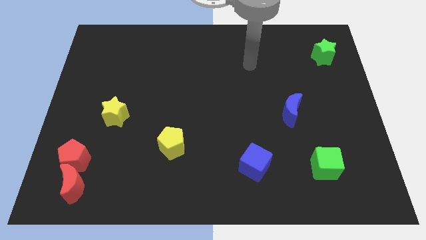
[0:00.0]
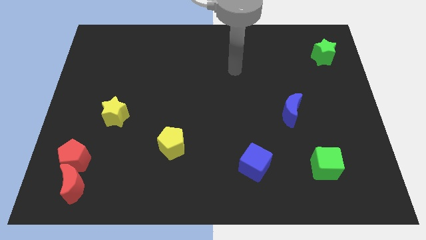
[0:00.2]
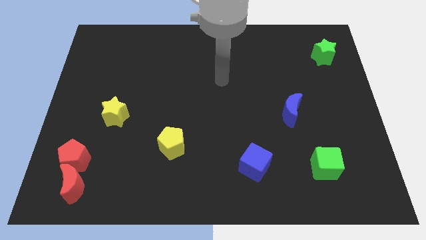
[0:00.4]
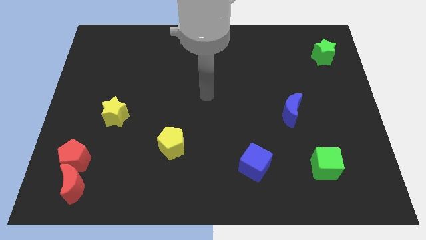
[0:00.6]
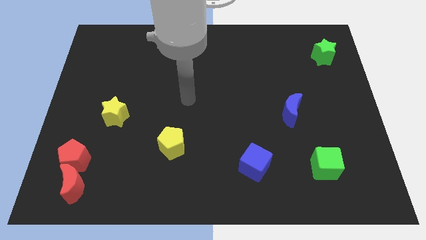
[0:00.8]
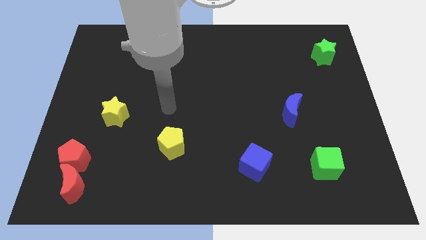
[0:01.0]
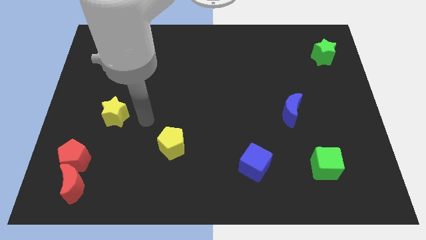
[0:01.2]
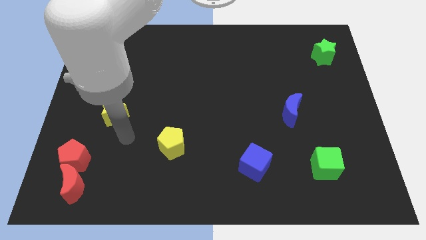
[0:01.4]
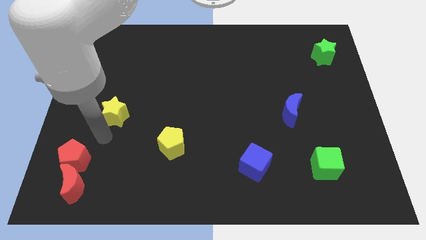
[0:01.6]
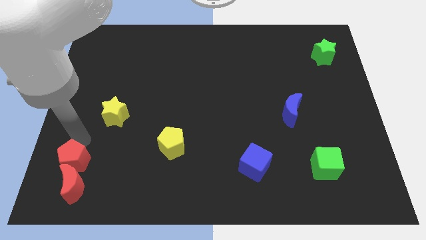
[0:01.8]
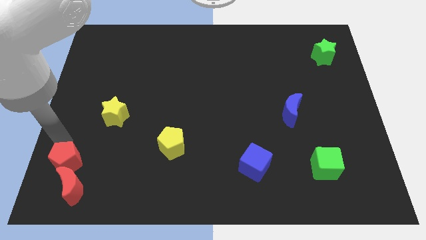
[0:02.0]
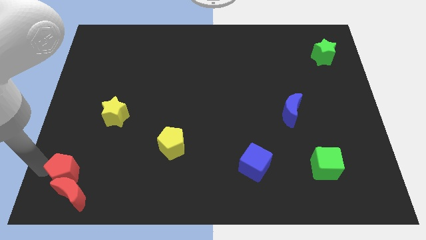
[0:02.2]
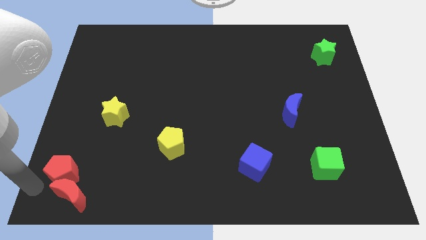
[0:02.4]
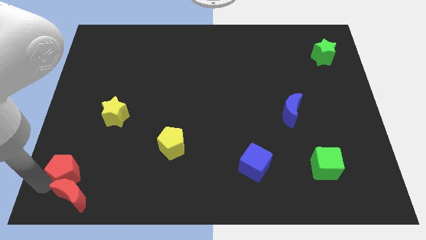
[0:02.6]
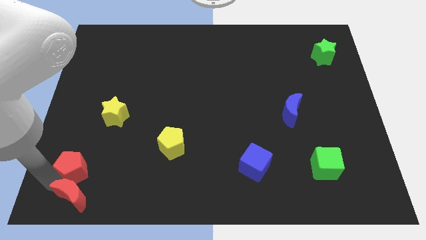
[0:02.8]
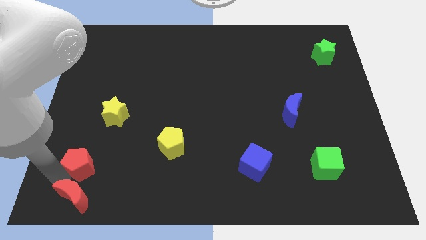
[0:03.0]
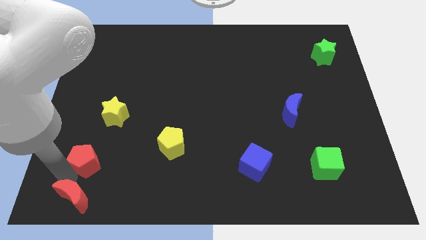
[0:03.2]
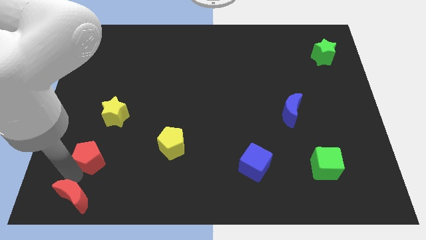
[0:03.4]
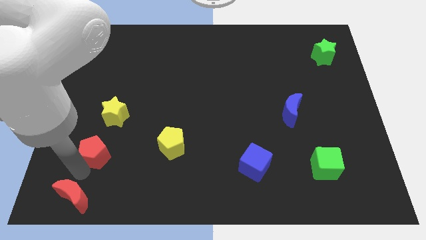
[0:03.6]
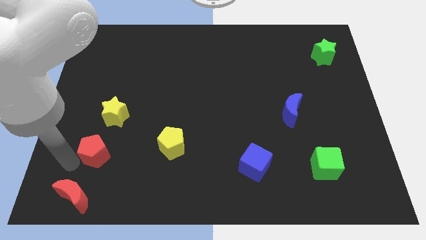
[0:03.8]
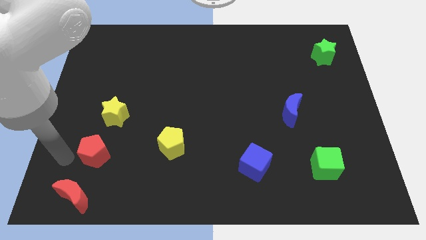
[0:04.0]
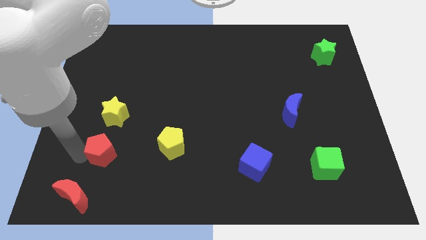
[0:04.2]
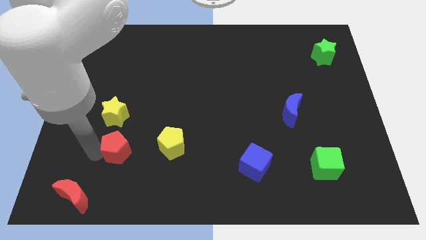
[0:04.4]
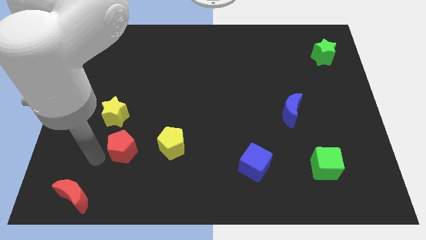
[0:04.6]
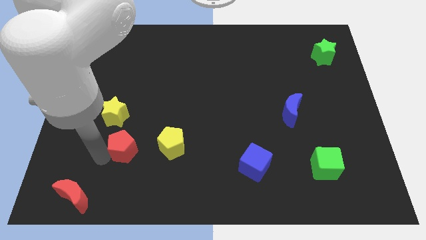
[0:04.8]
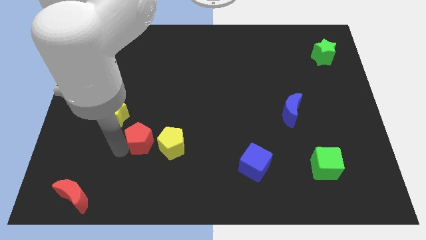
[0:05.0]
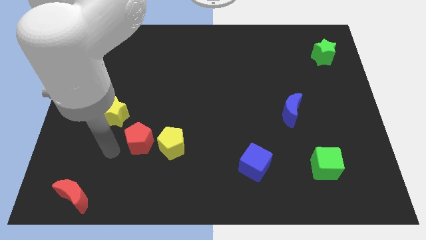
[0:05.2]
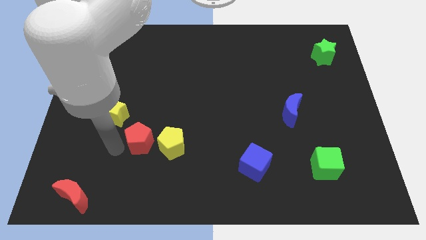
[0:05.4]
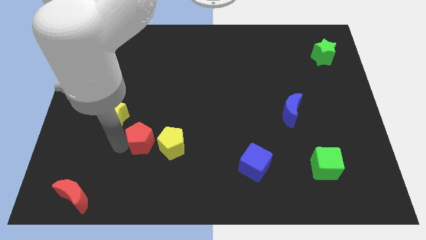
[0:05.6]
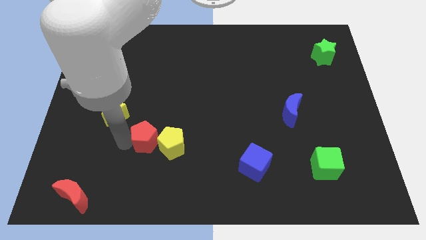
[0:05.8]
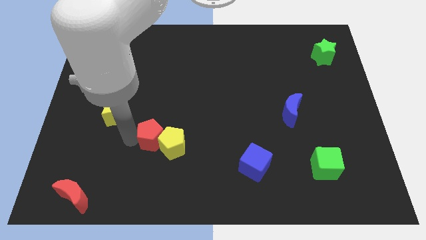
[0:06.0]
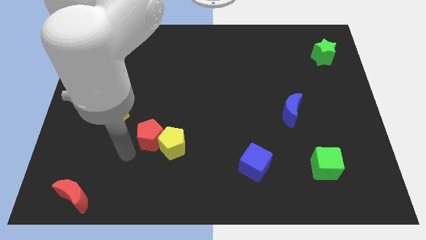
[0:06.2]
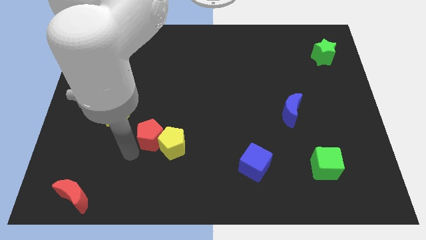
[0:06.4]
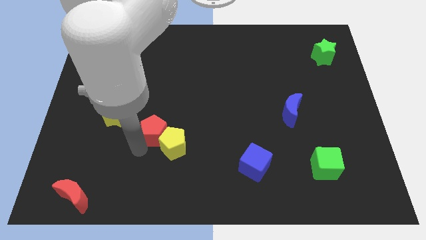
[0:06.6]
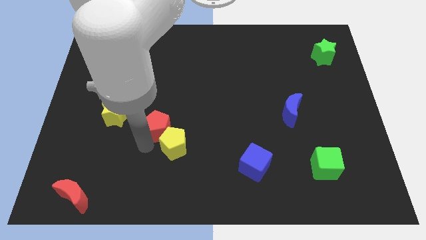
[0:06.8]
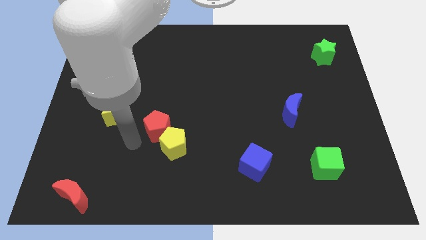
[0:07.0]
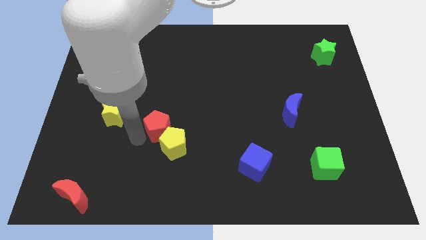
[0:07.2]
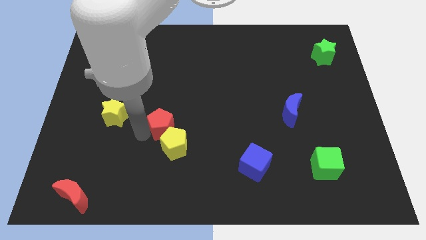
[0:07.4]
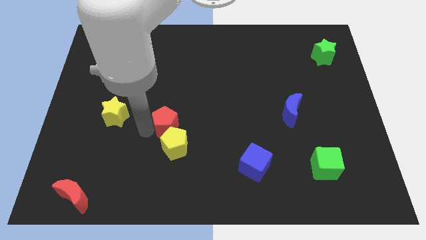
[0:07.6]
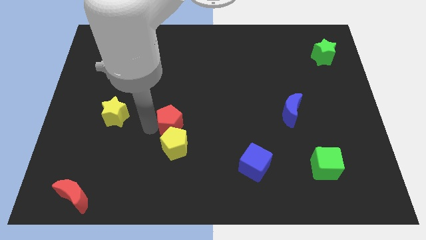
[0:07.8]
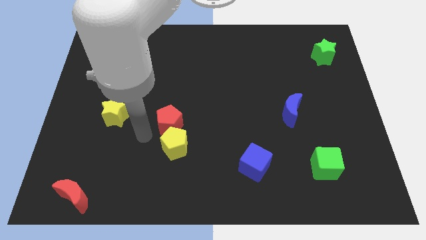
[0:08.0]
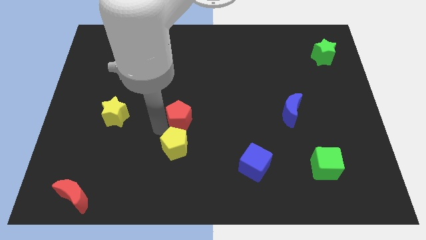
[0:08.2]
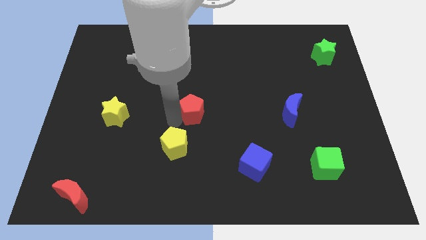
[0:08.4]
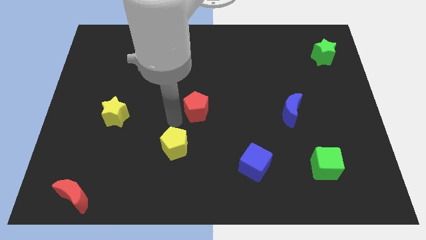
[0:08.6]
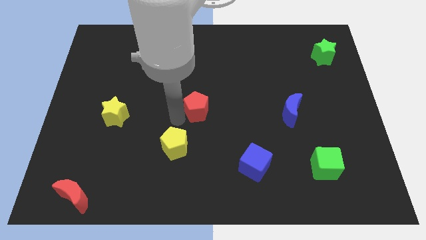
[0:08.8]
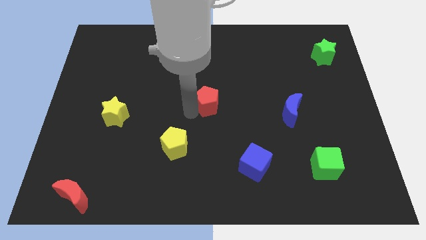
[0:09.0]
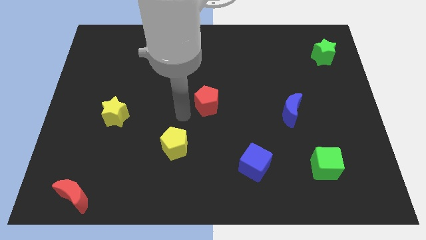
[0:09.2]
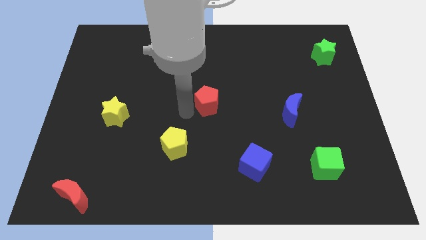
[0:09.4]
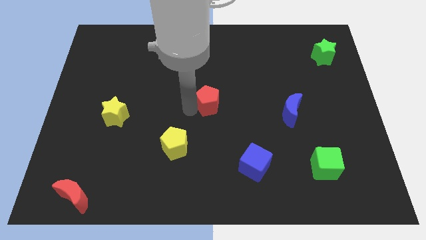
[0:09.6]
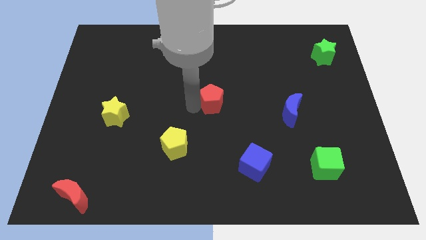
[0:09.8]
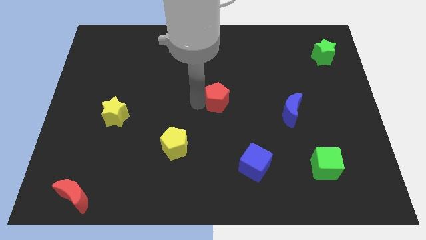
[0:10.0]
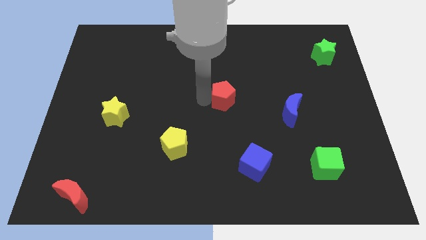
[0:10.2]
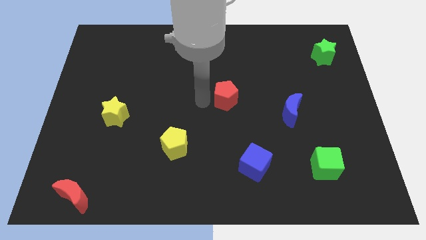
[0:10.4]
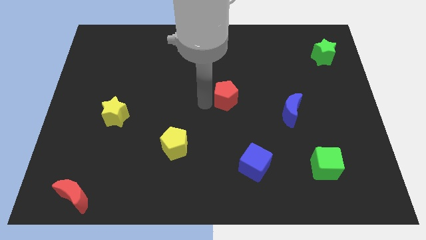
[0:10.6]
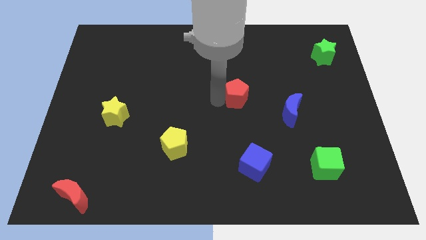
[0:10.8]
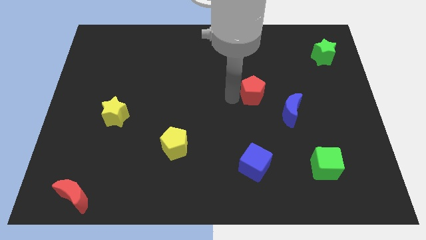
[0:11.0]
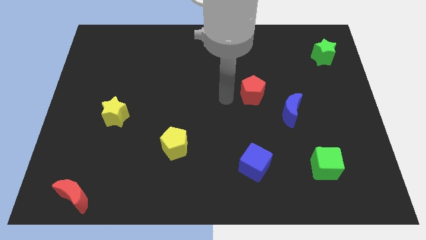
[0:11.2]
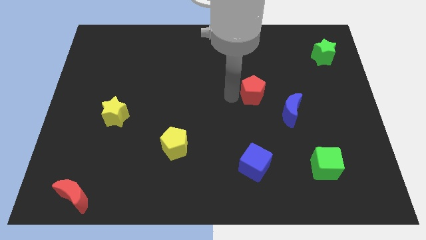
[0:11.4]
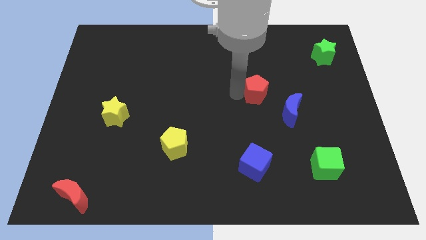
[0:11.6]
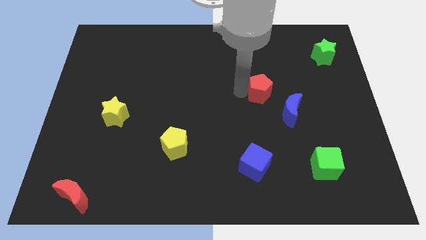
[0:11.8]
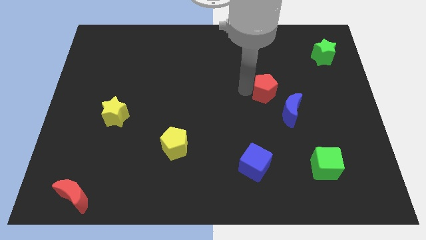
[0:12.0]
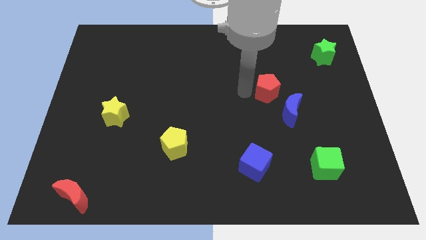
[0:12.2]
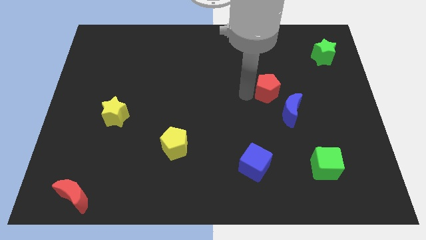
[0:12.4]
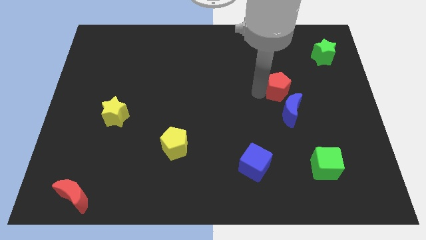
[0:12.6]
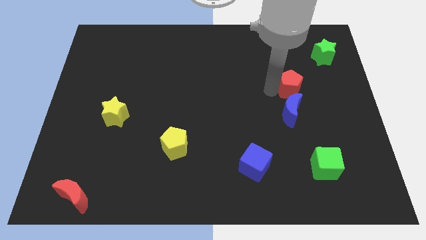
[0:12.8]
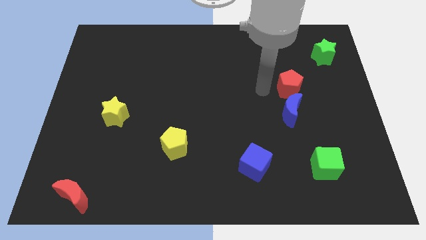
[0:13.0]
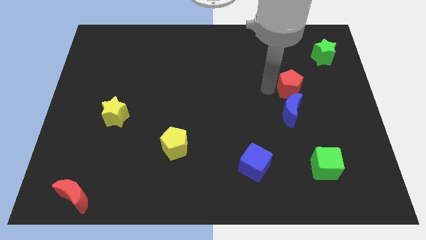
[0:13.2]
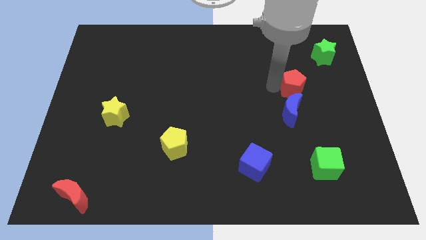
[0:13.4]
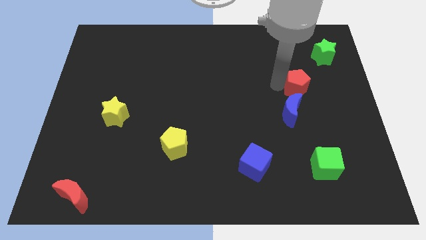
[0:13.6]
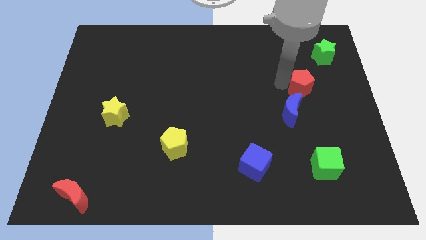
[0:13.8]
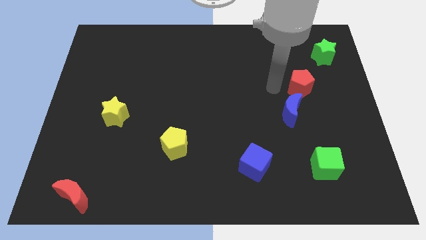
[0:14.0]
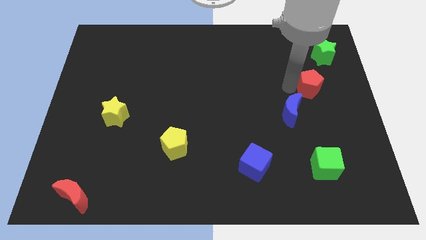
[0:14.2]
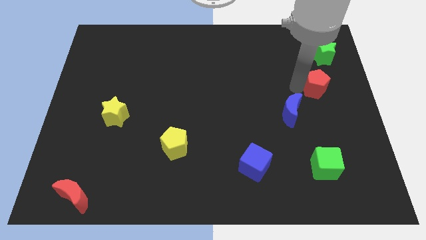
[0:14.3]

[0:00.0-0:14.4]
put the red pentagon below the green star

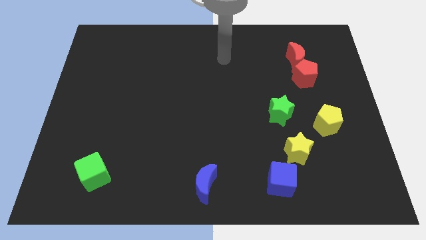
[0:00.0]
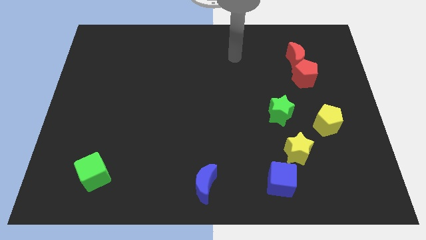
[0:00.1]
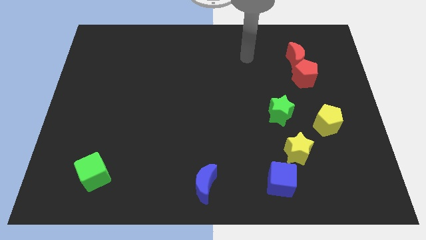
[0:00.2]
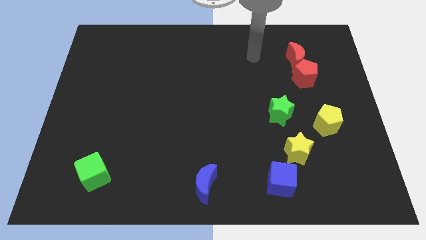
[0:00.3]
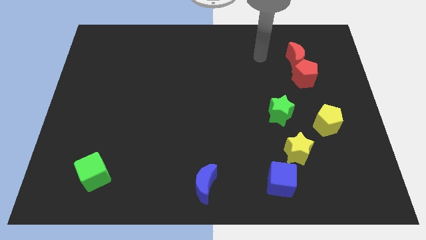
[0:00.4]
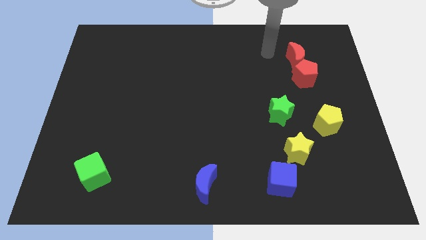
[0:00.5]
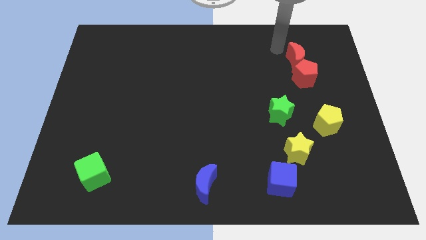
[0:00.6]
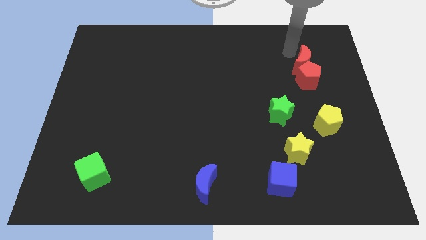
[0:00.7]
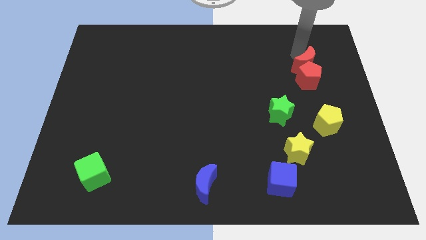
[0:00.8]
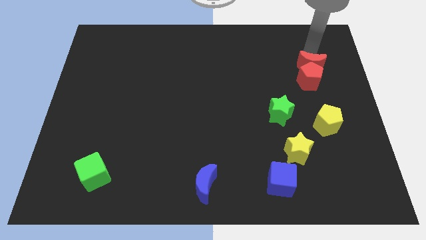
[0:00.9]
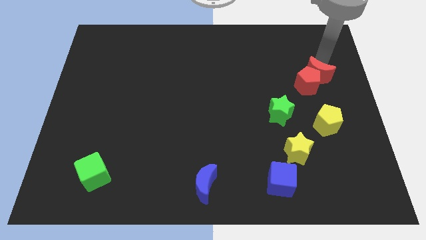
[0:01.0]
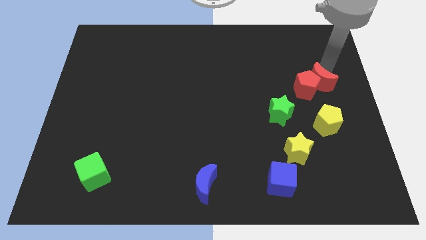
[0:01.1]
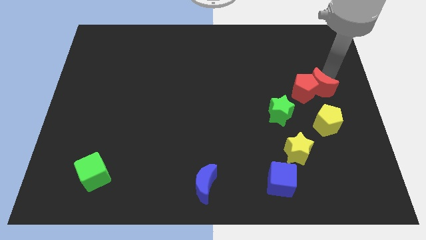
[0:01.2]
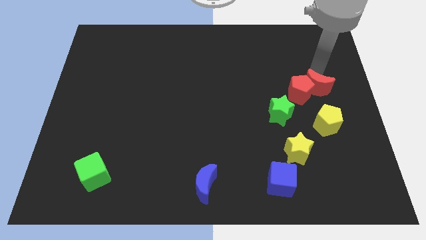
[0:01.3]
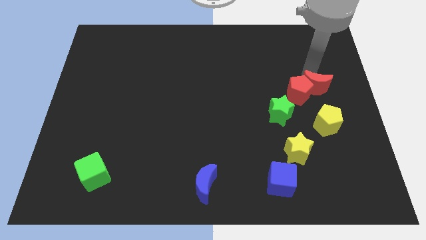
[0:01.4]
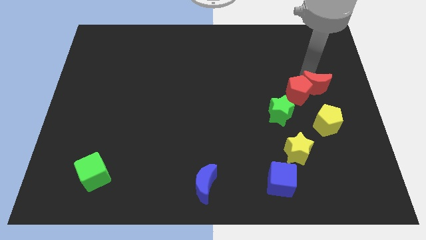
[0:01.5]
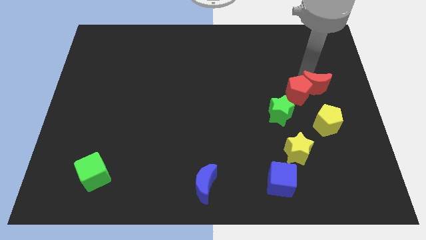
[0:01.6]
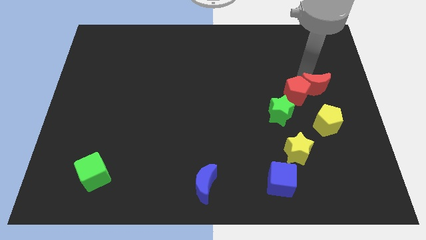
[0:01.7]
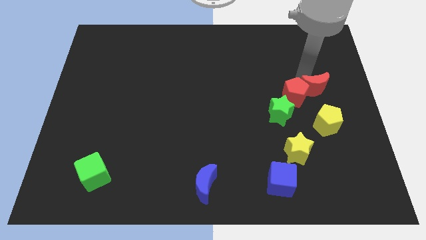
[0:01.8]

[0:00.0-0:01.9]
move the red pentagon above the yellow star
